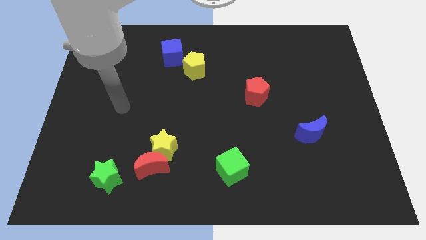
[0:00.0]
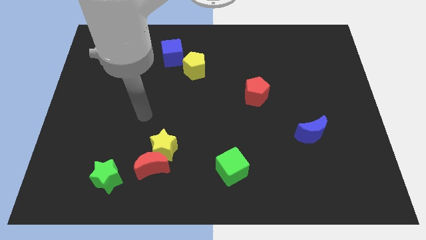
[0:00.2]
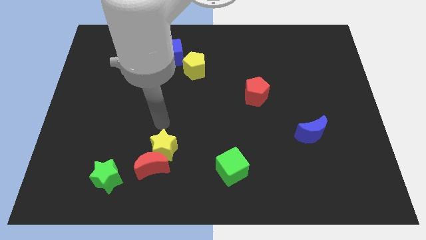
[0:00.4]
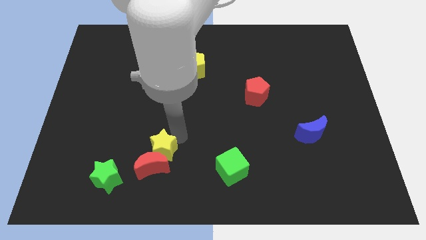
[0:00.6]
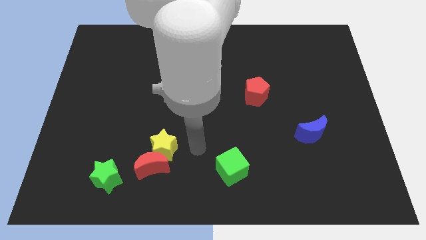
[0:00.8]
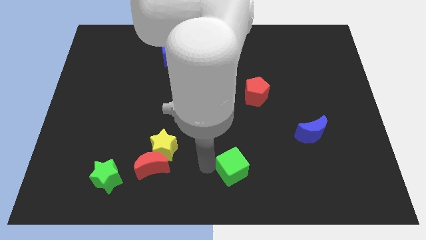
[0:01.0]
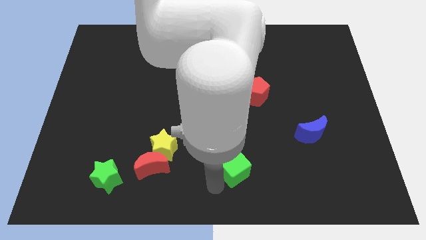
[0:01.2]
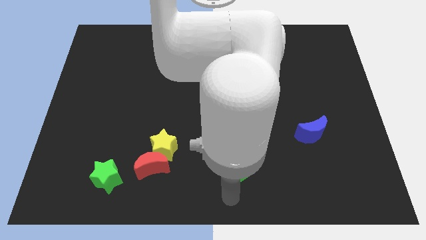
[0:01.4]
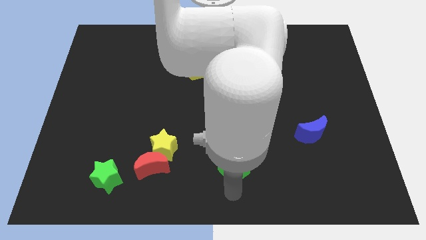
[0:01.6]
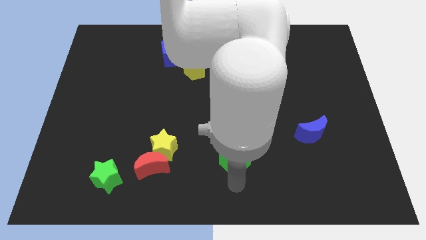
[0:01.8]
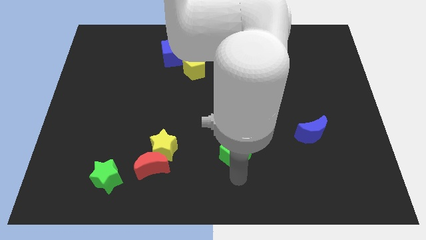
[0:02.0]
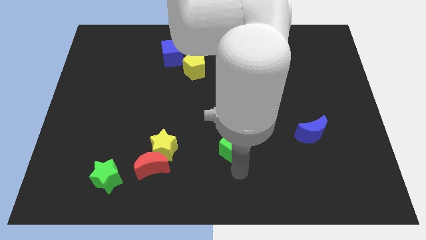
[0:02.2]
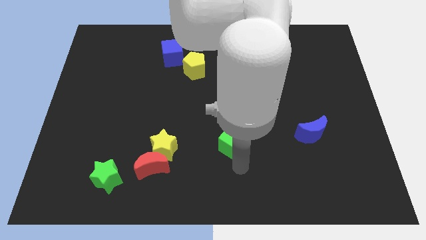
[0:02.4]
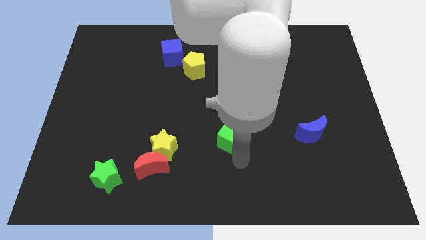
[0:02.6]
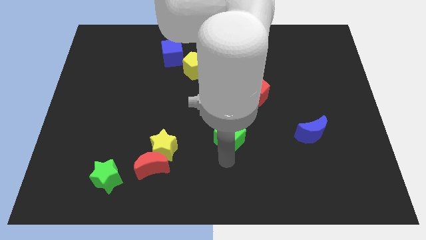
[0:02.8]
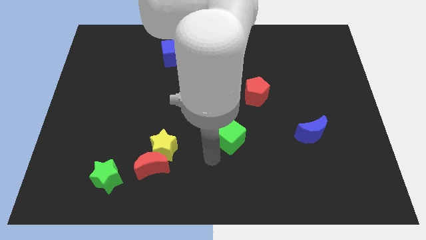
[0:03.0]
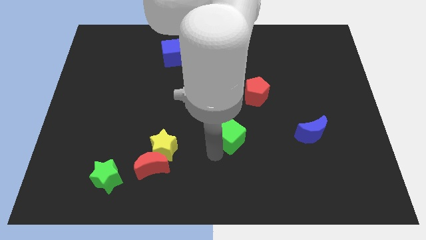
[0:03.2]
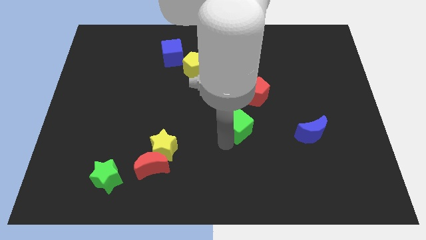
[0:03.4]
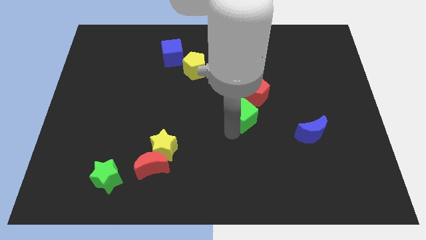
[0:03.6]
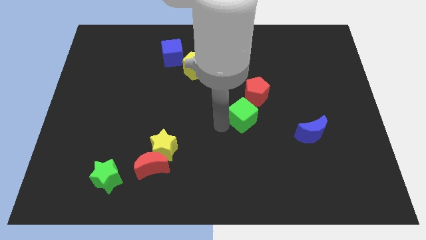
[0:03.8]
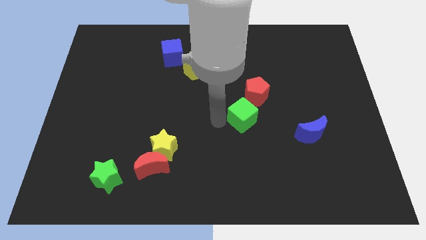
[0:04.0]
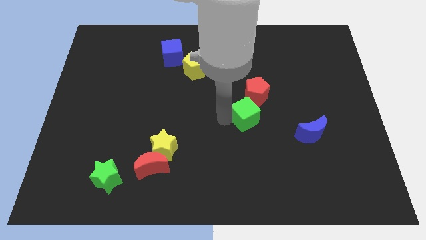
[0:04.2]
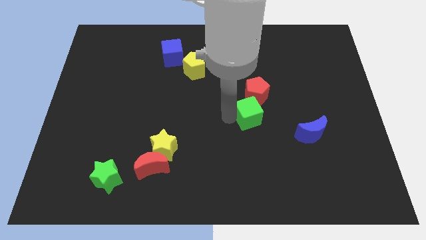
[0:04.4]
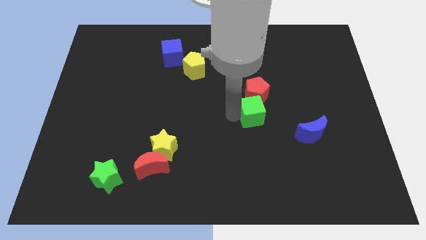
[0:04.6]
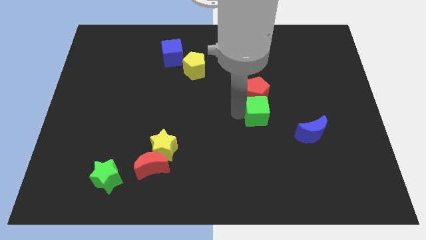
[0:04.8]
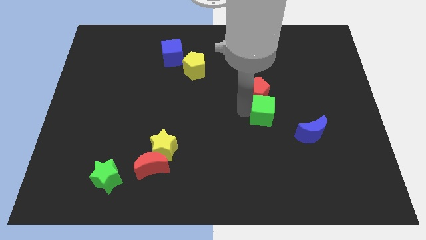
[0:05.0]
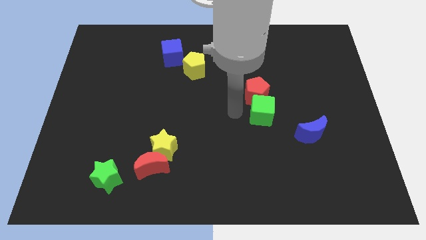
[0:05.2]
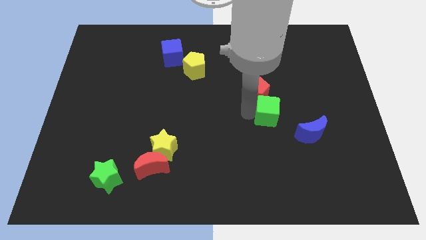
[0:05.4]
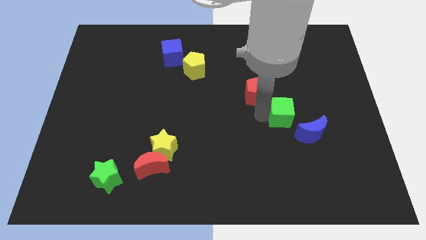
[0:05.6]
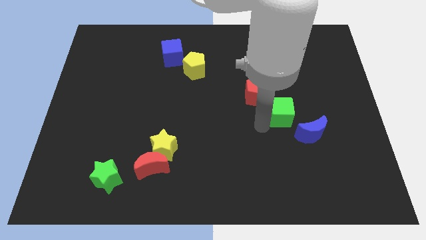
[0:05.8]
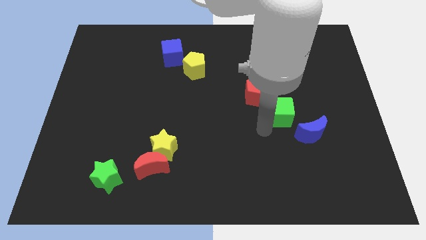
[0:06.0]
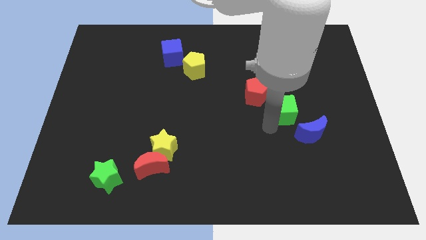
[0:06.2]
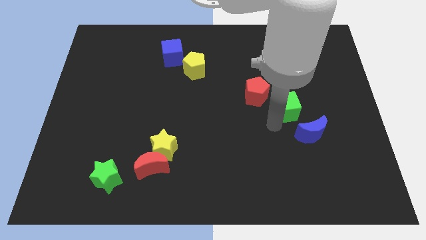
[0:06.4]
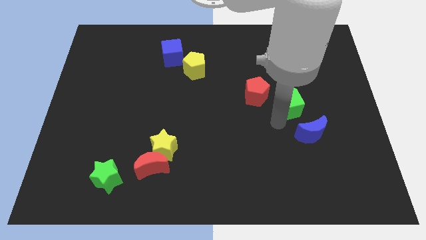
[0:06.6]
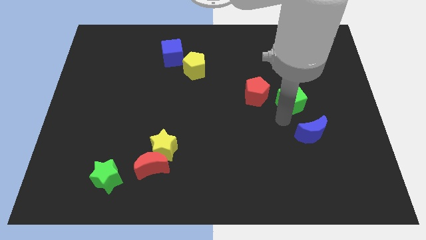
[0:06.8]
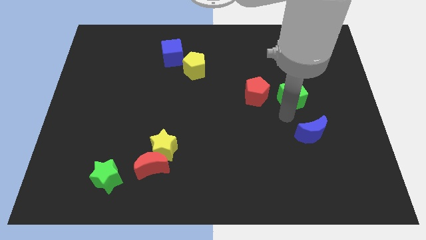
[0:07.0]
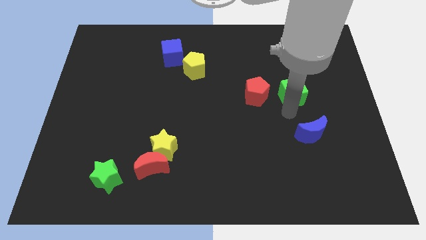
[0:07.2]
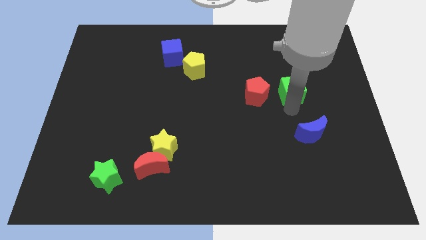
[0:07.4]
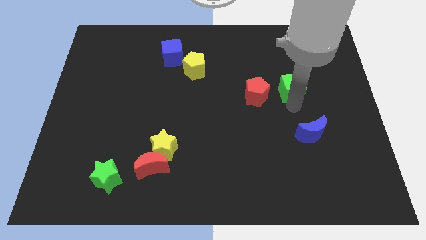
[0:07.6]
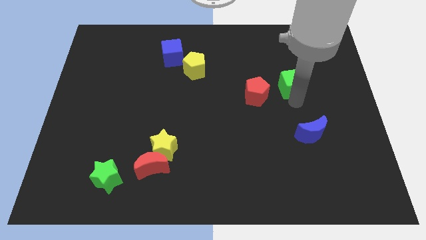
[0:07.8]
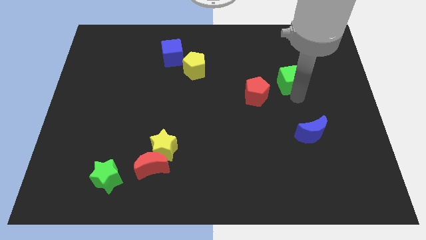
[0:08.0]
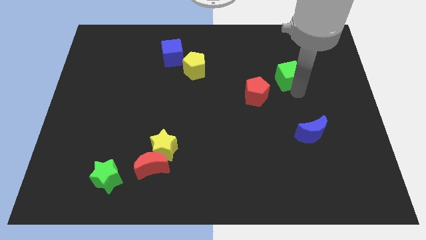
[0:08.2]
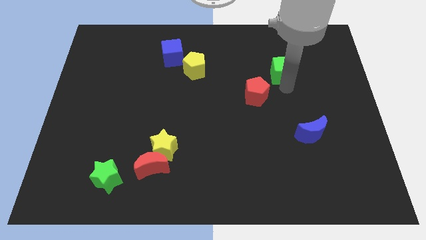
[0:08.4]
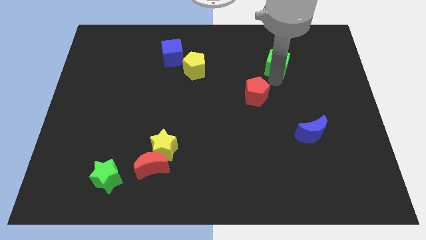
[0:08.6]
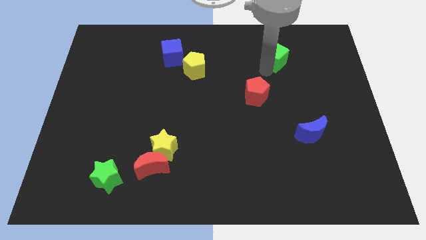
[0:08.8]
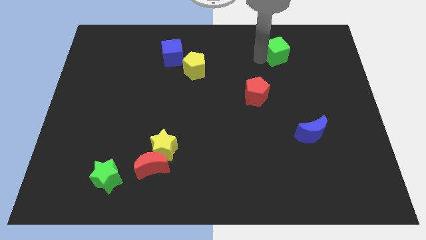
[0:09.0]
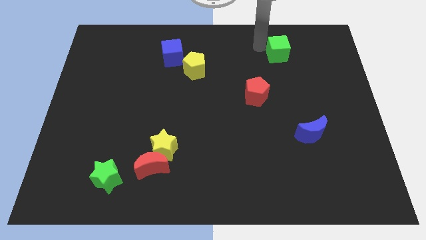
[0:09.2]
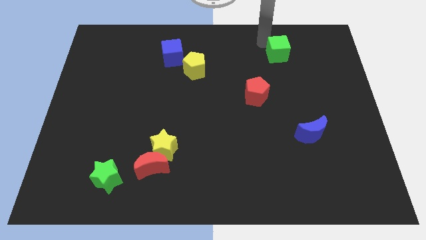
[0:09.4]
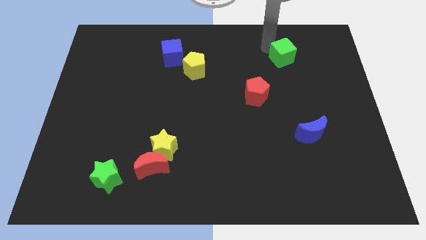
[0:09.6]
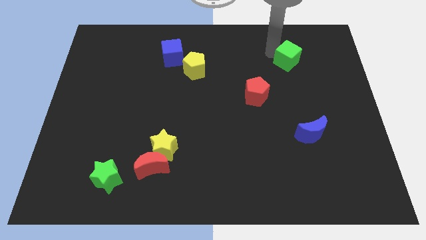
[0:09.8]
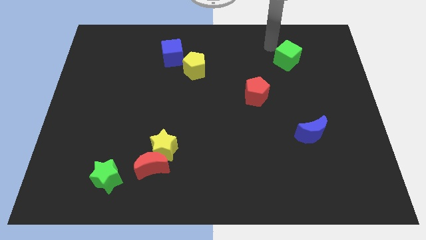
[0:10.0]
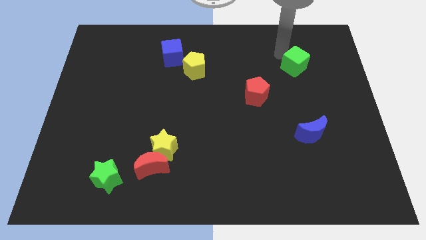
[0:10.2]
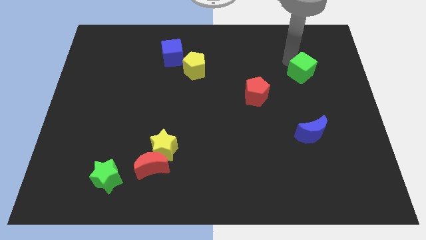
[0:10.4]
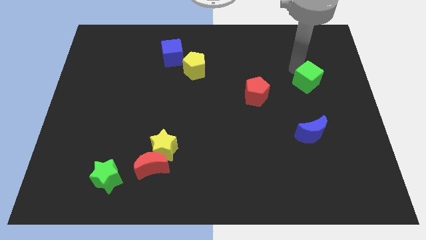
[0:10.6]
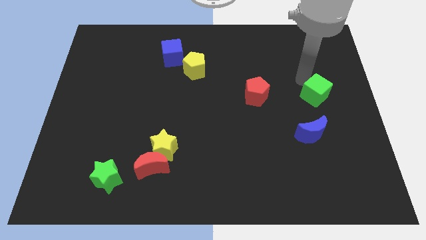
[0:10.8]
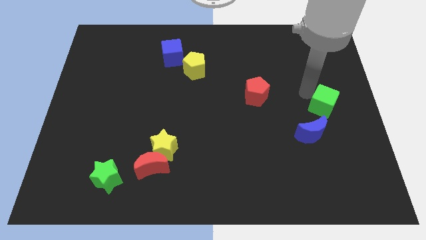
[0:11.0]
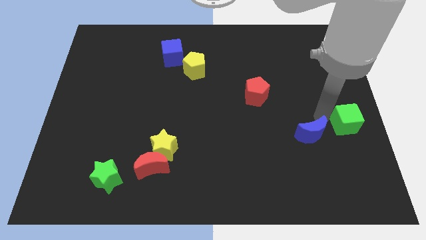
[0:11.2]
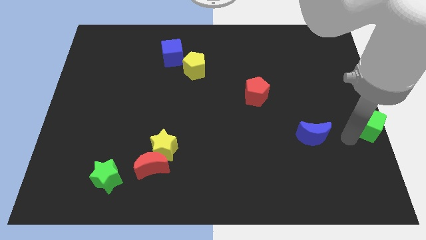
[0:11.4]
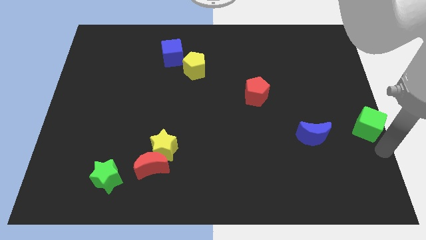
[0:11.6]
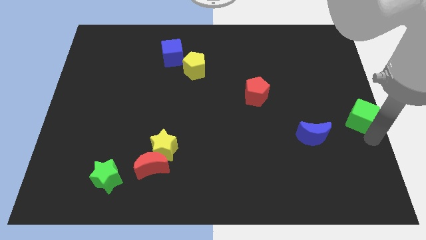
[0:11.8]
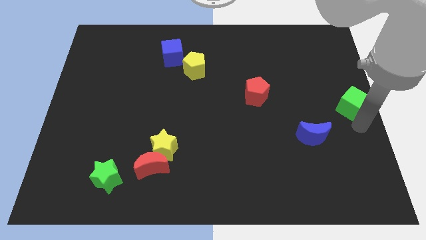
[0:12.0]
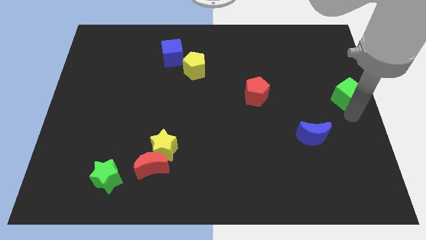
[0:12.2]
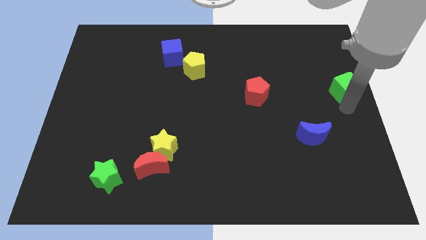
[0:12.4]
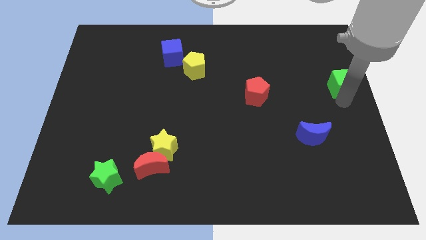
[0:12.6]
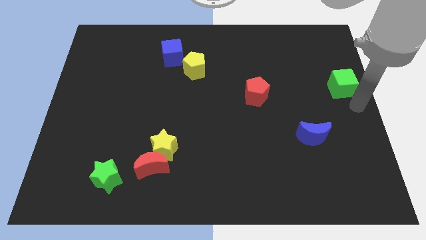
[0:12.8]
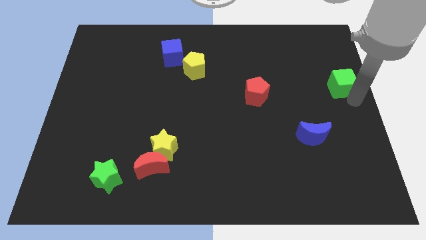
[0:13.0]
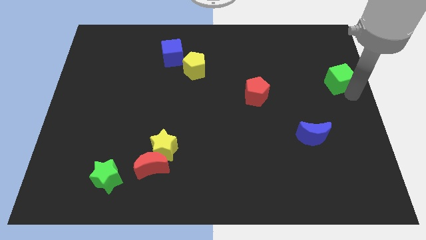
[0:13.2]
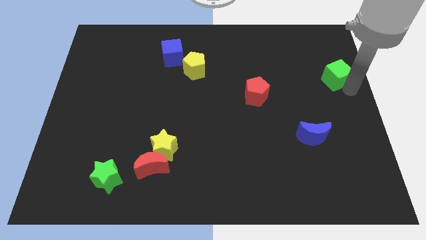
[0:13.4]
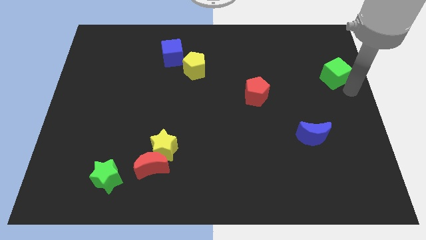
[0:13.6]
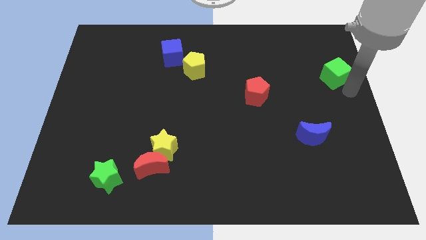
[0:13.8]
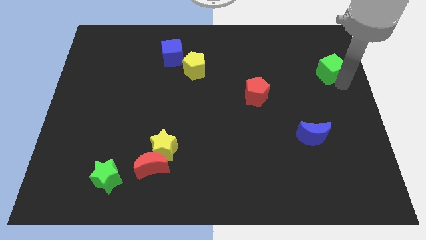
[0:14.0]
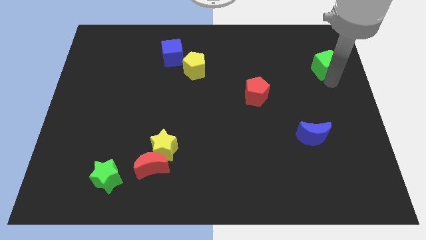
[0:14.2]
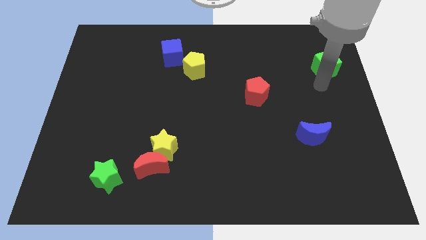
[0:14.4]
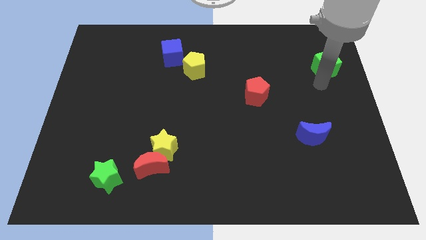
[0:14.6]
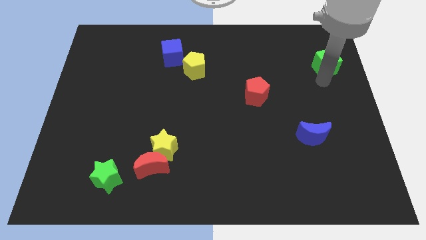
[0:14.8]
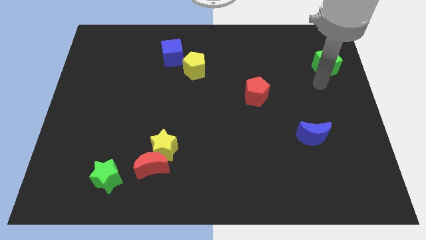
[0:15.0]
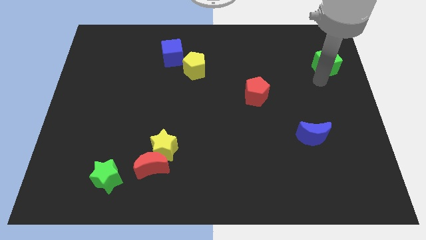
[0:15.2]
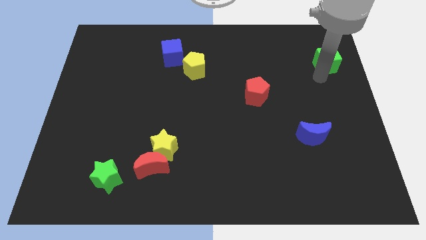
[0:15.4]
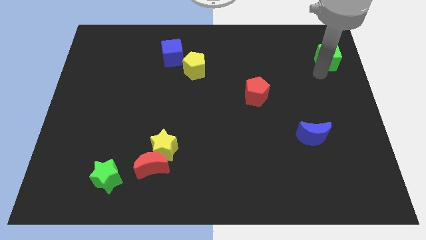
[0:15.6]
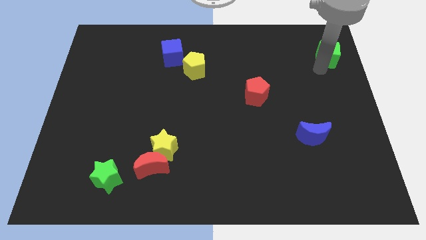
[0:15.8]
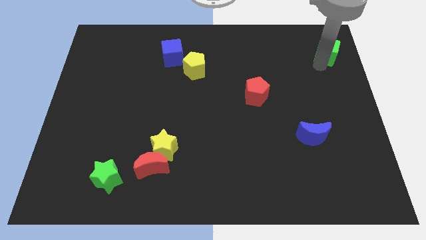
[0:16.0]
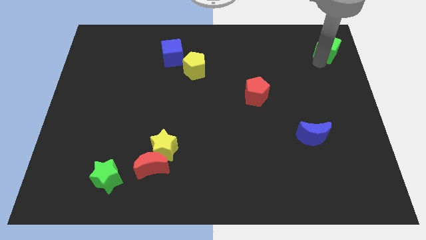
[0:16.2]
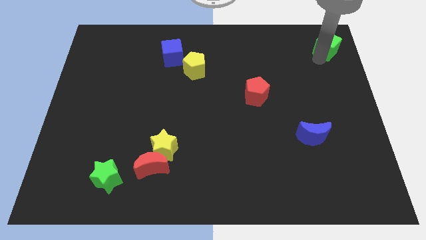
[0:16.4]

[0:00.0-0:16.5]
slide the green cube to the top right corner
